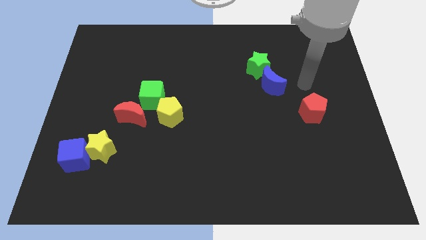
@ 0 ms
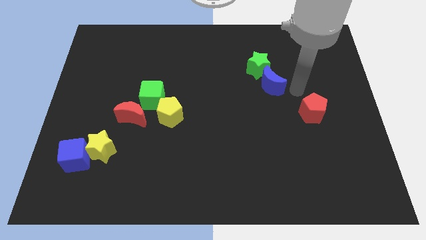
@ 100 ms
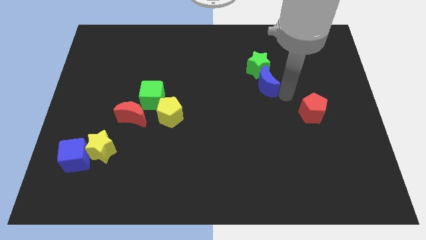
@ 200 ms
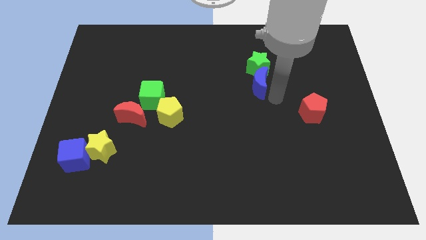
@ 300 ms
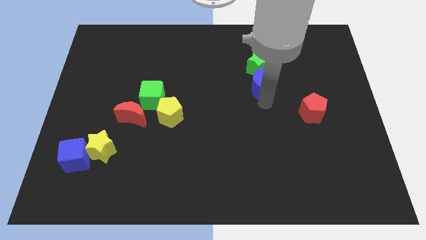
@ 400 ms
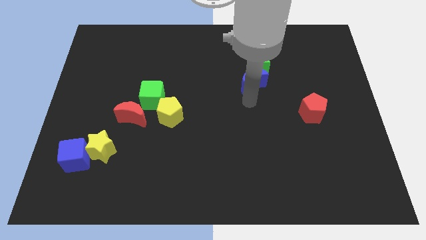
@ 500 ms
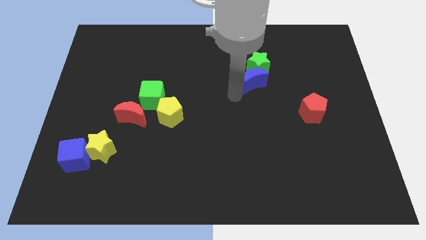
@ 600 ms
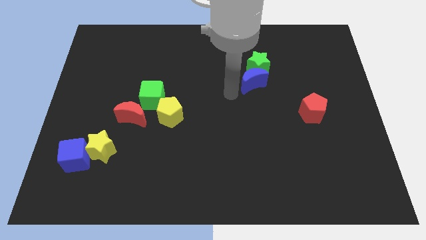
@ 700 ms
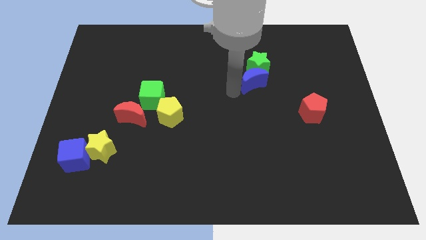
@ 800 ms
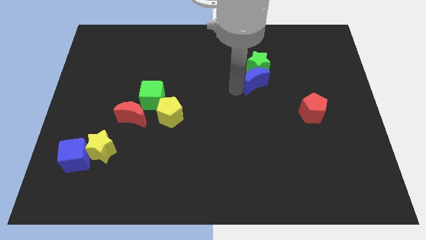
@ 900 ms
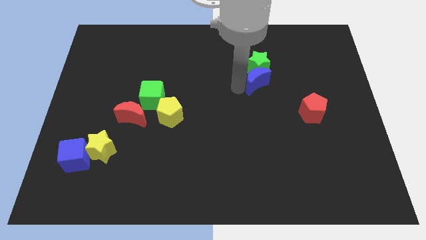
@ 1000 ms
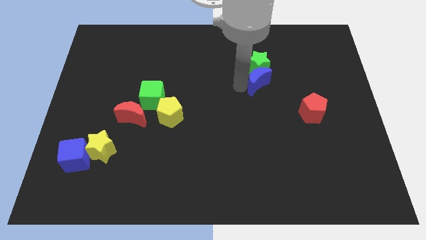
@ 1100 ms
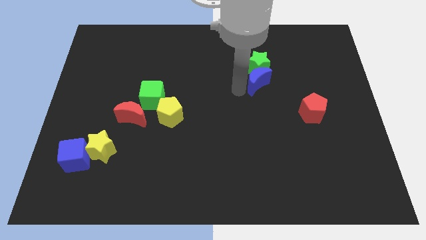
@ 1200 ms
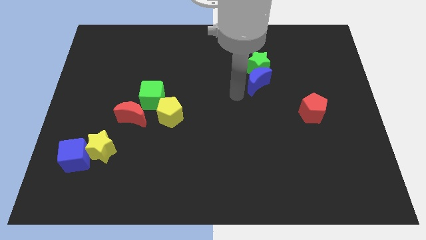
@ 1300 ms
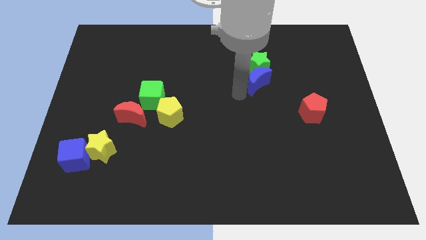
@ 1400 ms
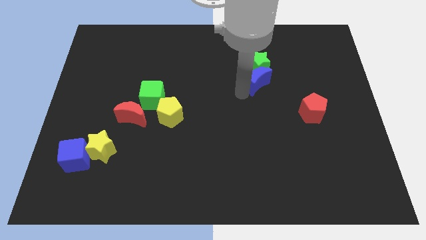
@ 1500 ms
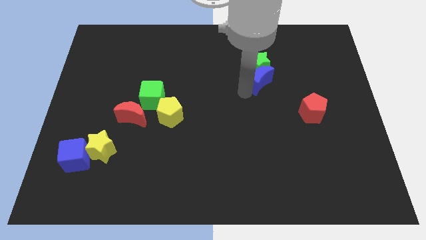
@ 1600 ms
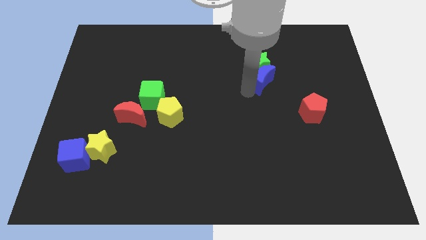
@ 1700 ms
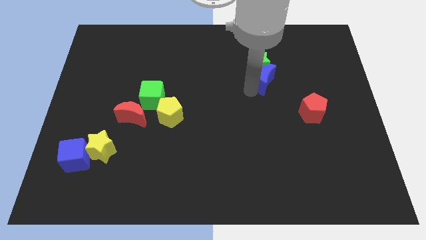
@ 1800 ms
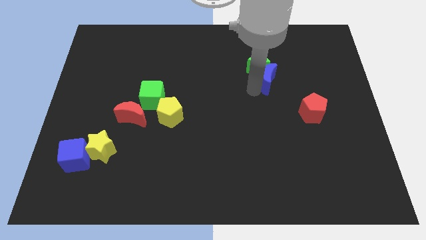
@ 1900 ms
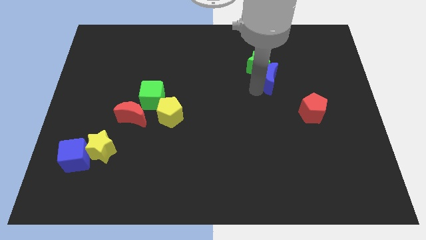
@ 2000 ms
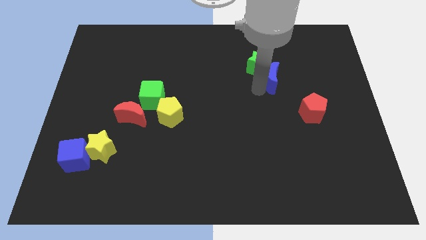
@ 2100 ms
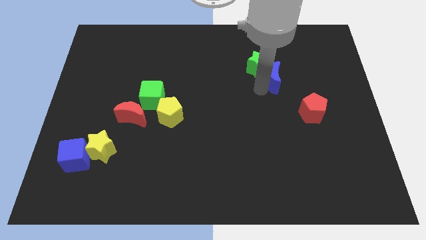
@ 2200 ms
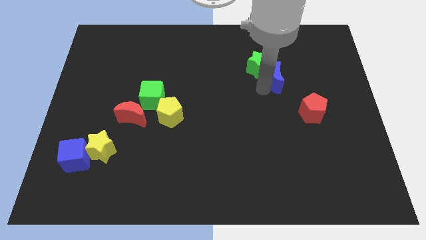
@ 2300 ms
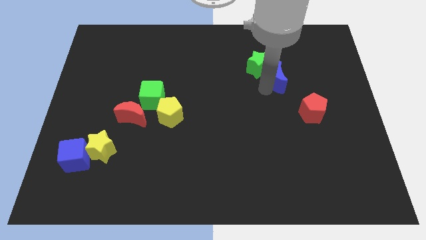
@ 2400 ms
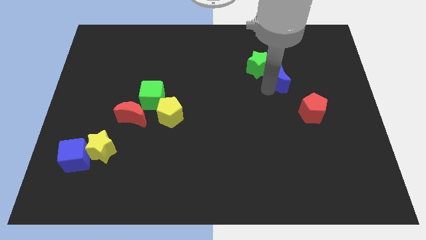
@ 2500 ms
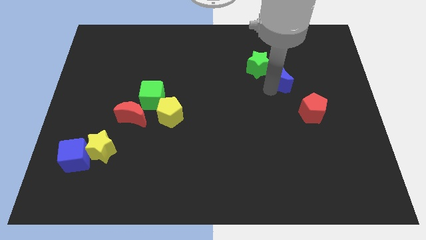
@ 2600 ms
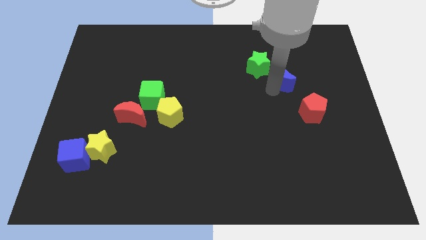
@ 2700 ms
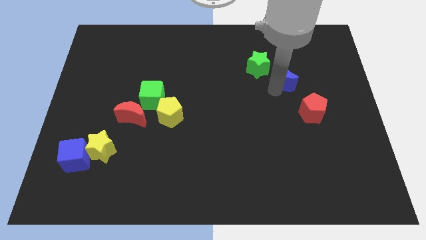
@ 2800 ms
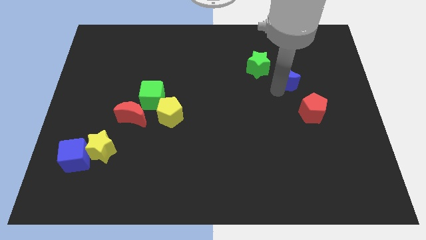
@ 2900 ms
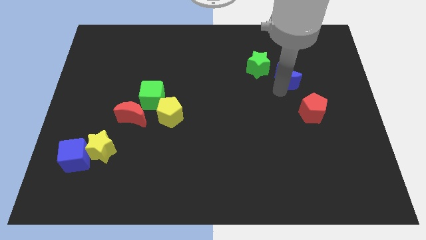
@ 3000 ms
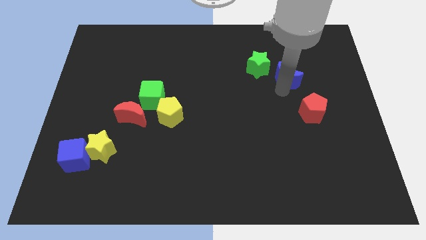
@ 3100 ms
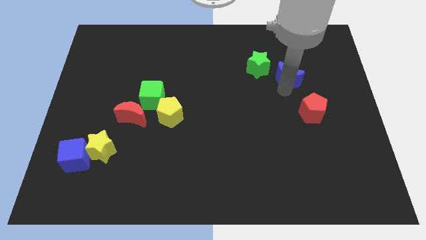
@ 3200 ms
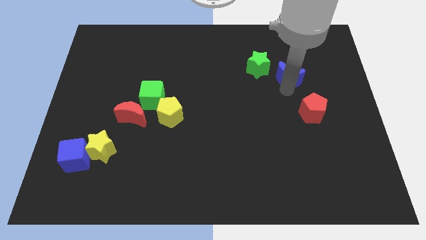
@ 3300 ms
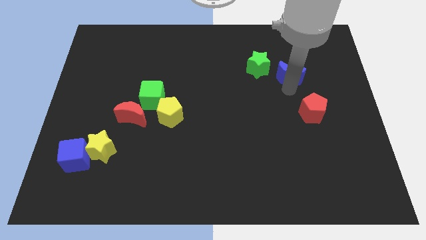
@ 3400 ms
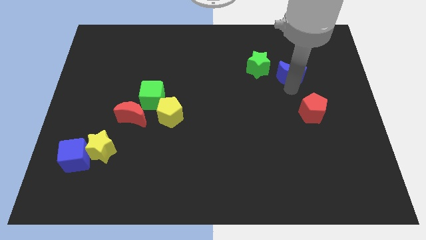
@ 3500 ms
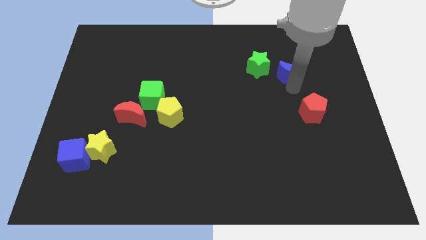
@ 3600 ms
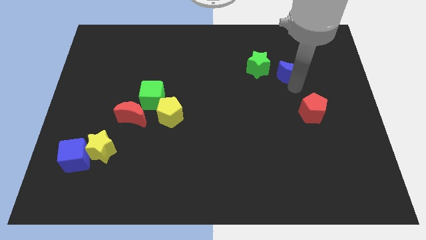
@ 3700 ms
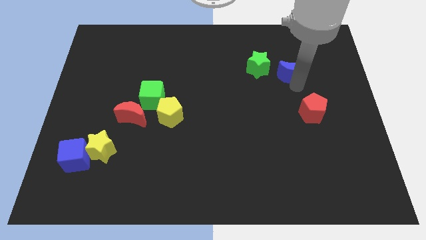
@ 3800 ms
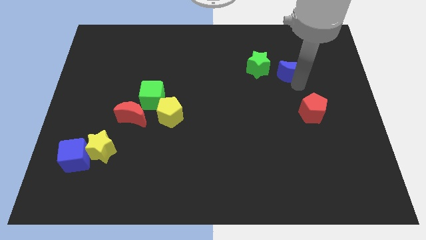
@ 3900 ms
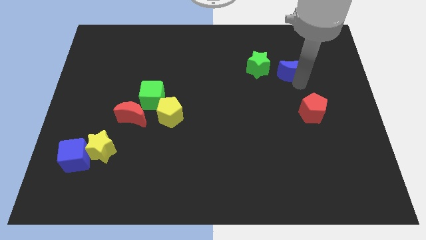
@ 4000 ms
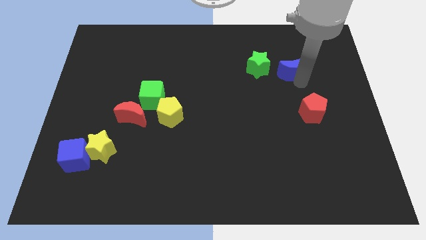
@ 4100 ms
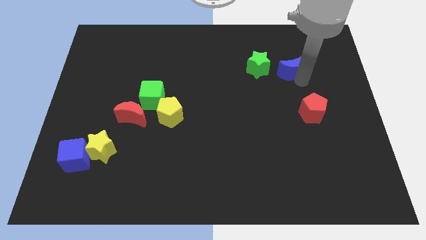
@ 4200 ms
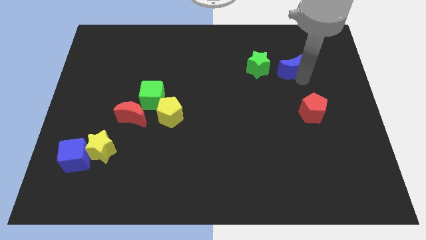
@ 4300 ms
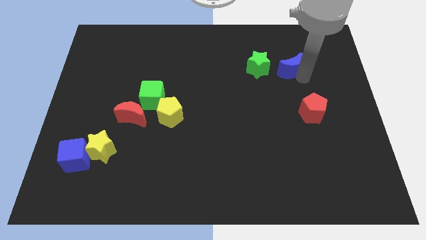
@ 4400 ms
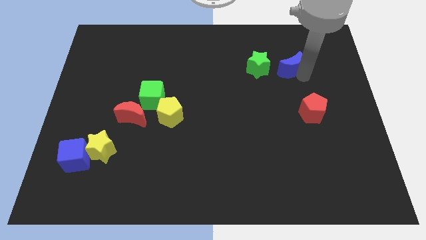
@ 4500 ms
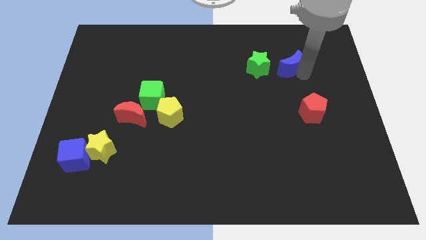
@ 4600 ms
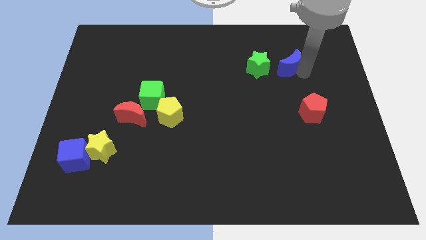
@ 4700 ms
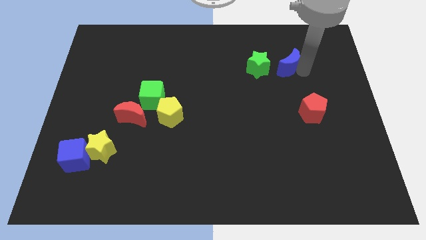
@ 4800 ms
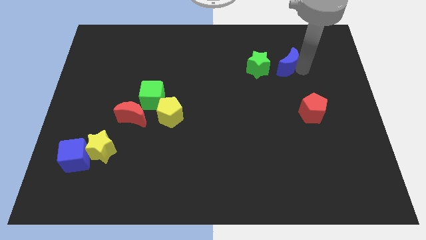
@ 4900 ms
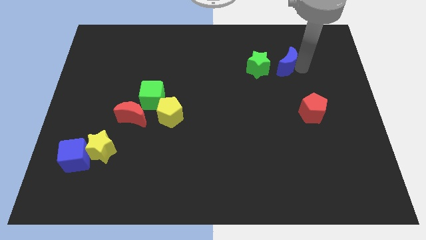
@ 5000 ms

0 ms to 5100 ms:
push the blue moon to the top right side of the green star

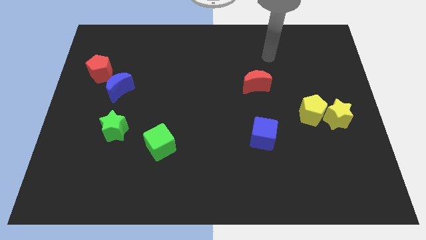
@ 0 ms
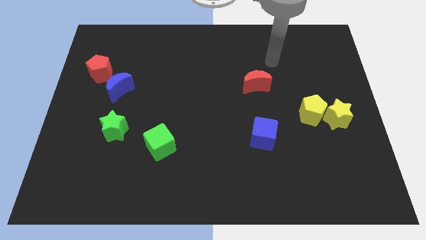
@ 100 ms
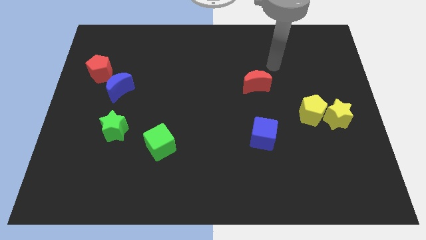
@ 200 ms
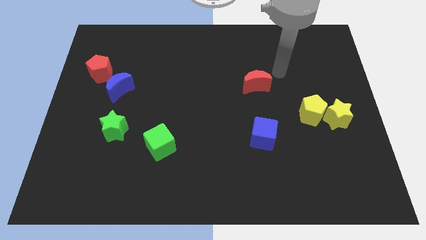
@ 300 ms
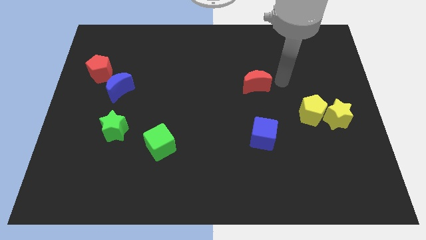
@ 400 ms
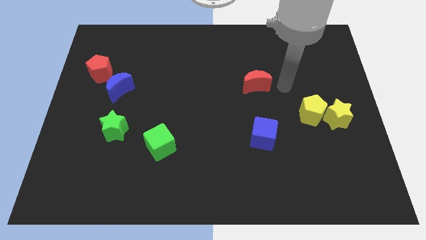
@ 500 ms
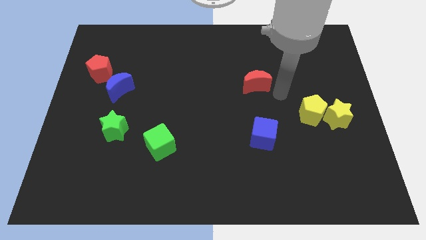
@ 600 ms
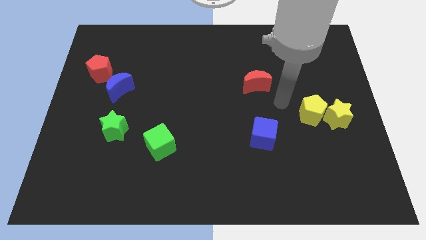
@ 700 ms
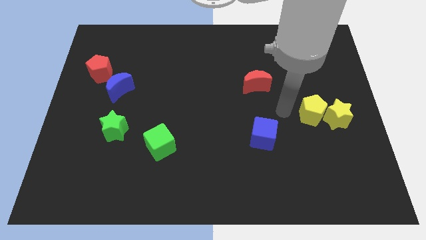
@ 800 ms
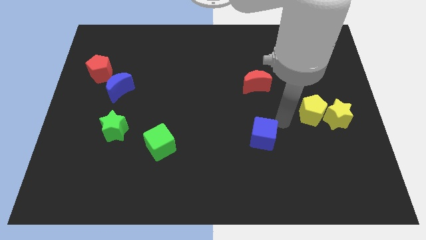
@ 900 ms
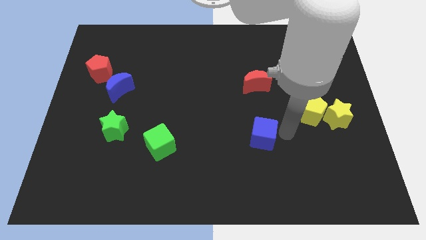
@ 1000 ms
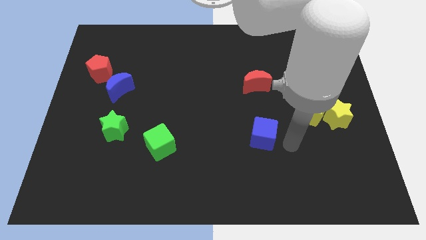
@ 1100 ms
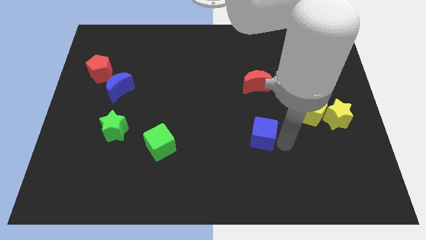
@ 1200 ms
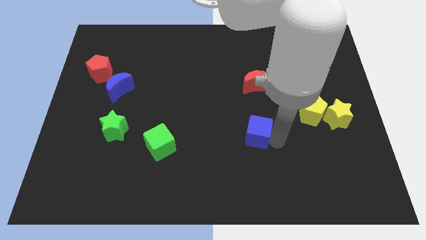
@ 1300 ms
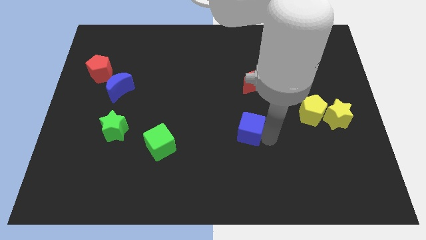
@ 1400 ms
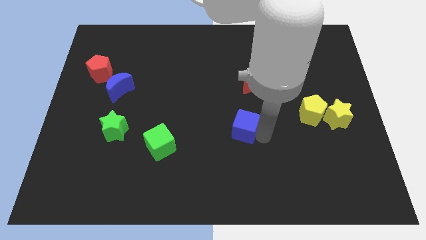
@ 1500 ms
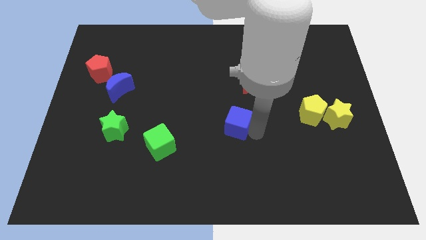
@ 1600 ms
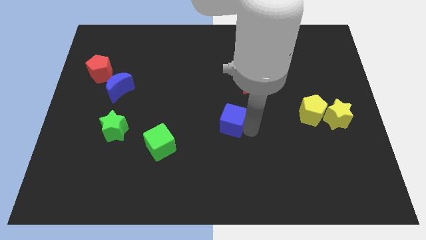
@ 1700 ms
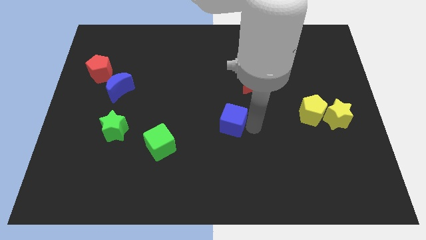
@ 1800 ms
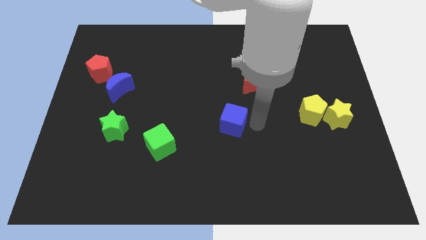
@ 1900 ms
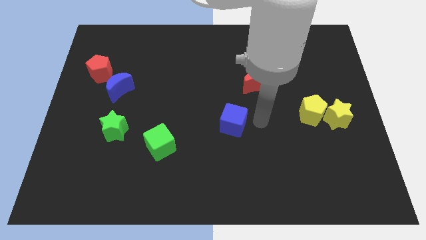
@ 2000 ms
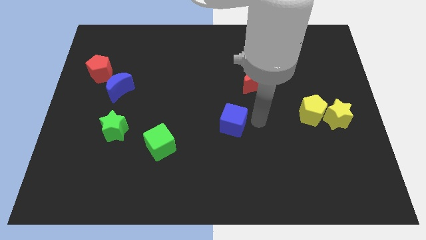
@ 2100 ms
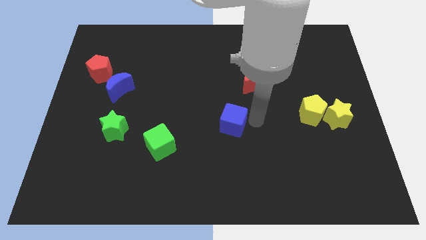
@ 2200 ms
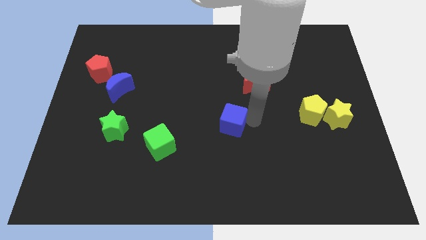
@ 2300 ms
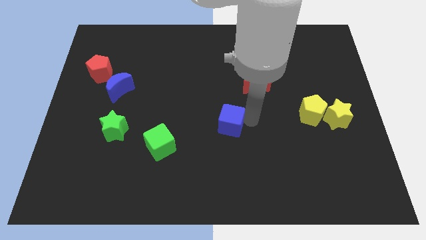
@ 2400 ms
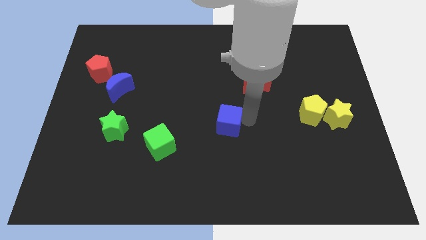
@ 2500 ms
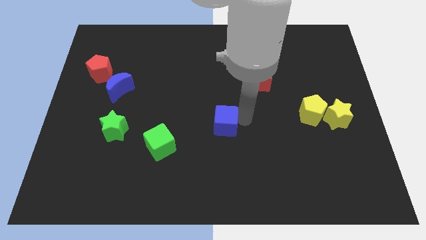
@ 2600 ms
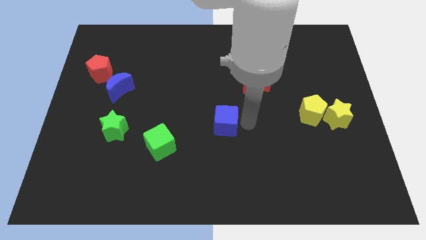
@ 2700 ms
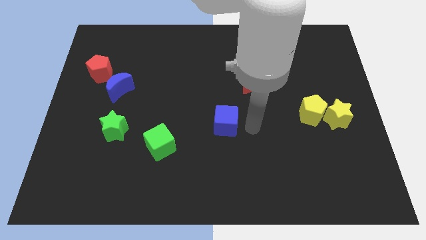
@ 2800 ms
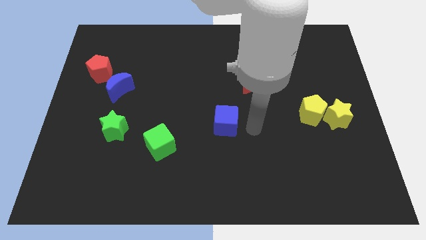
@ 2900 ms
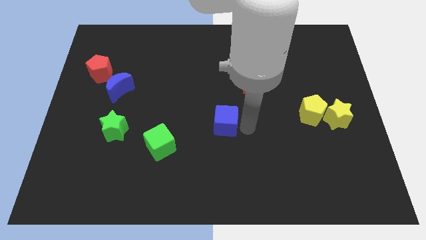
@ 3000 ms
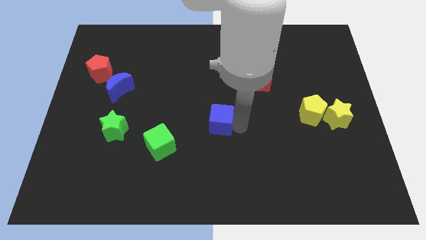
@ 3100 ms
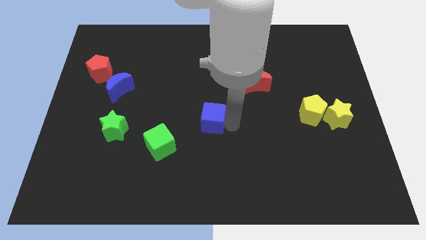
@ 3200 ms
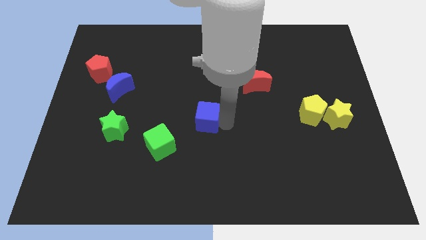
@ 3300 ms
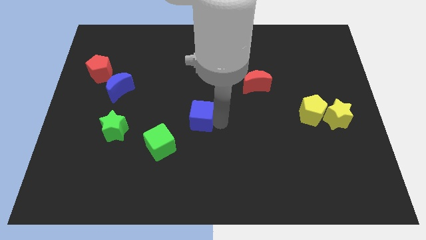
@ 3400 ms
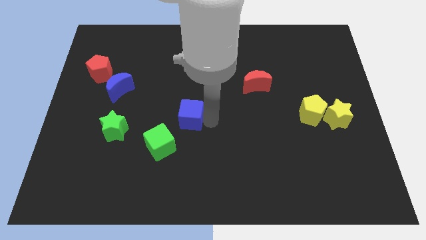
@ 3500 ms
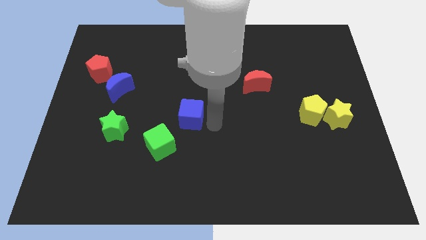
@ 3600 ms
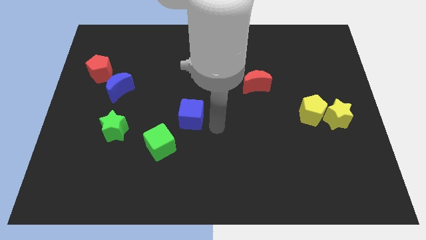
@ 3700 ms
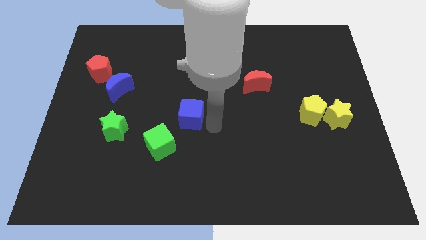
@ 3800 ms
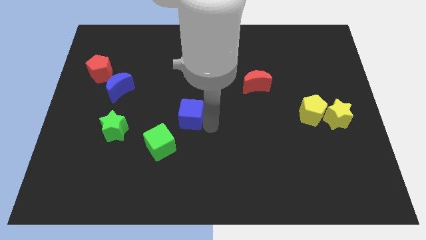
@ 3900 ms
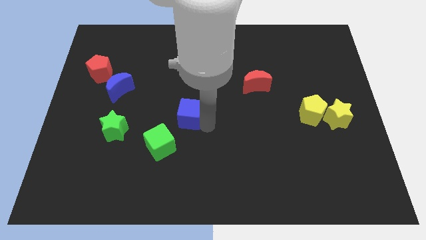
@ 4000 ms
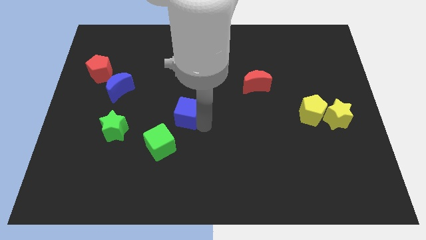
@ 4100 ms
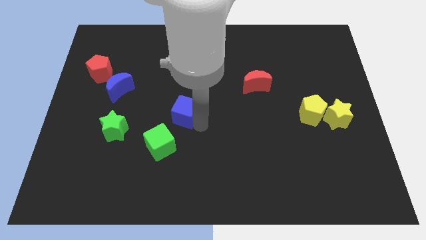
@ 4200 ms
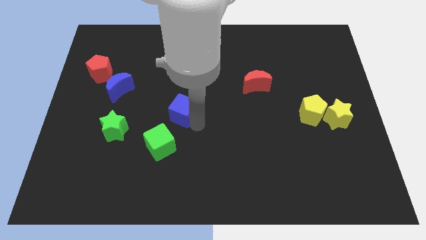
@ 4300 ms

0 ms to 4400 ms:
push the blue cube to the top side of the green cube
